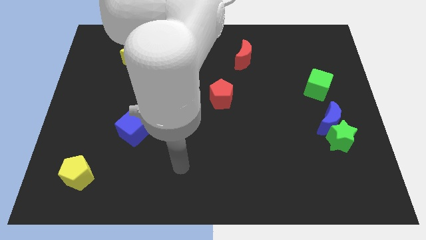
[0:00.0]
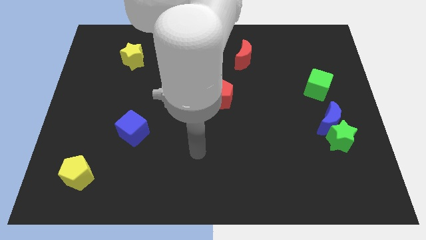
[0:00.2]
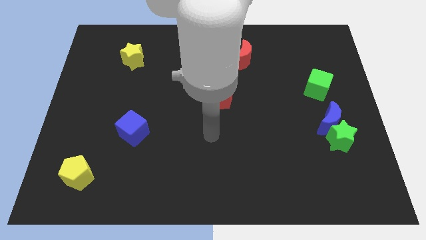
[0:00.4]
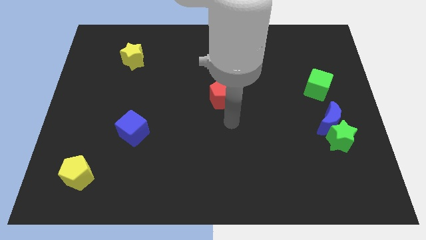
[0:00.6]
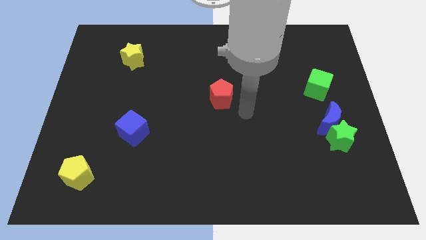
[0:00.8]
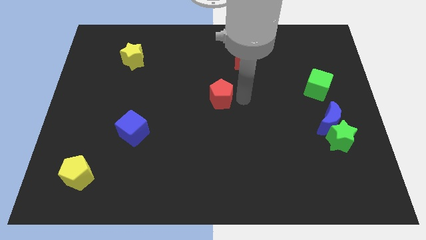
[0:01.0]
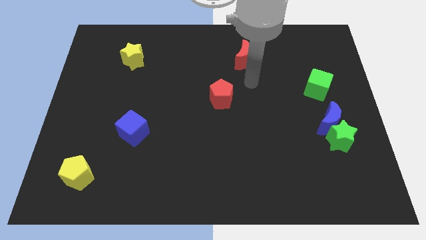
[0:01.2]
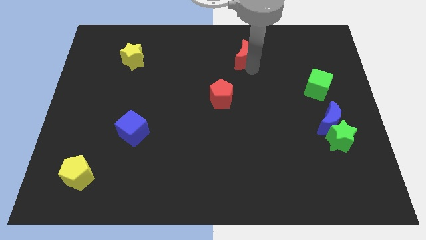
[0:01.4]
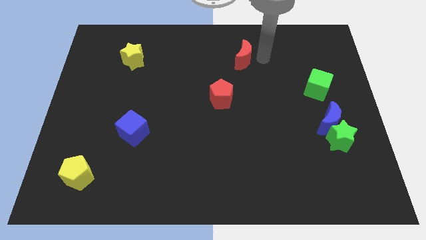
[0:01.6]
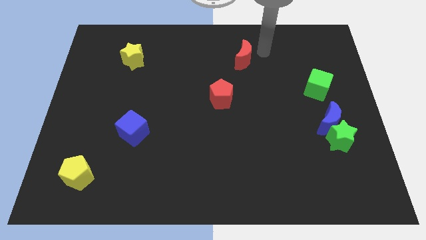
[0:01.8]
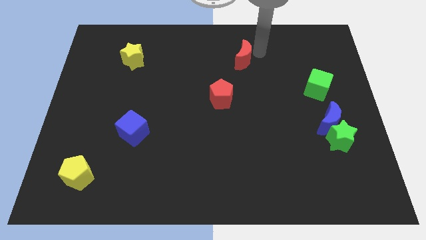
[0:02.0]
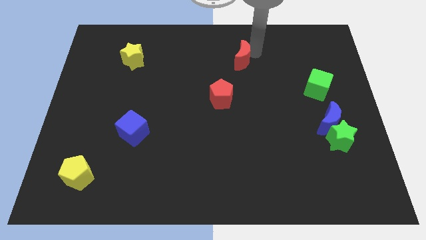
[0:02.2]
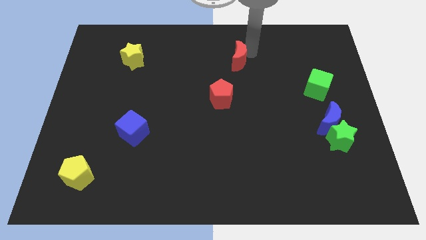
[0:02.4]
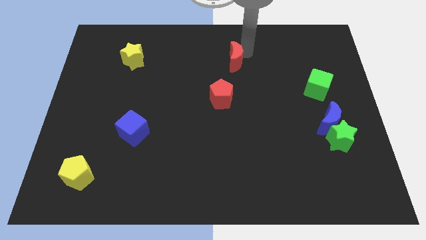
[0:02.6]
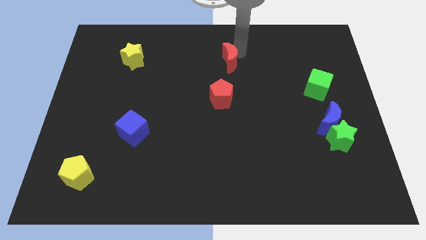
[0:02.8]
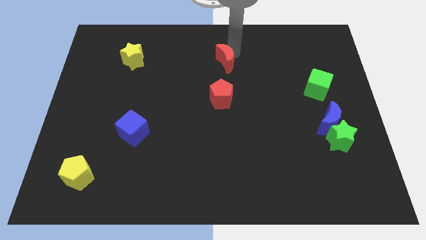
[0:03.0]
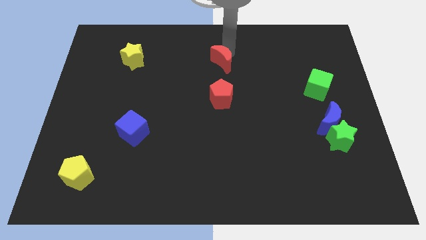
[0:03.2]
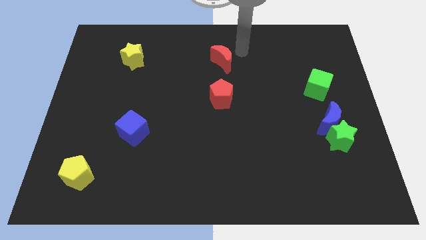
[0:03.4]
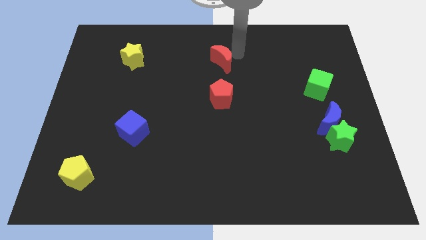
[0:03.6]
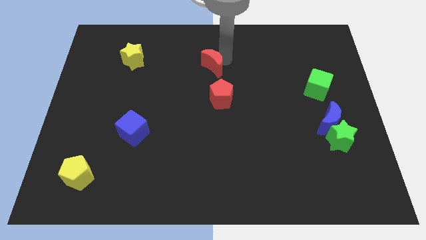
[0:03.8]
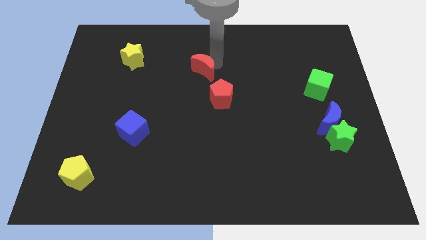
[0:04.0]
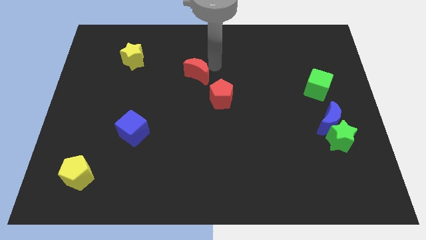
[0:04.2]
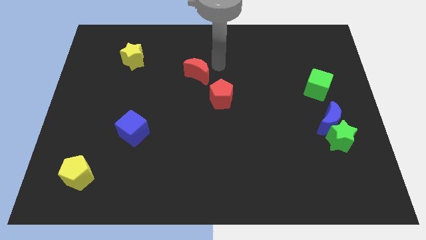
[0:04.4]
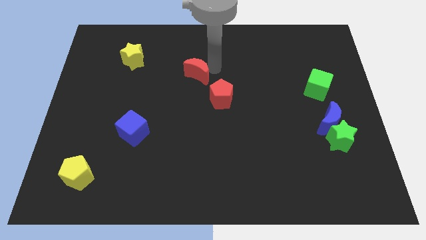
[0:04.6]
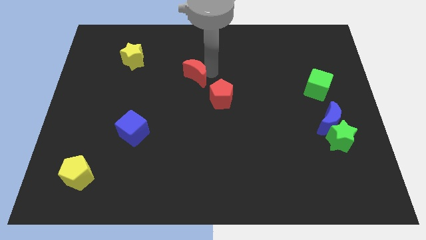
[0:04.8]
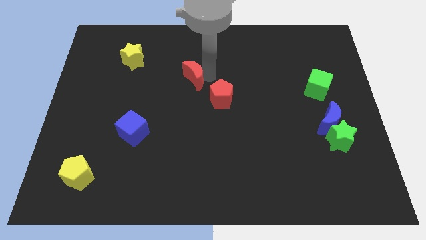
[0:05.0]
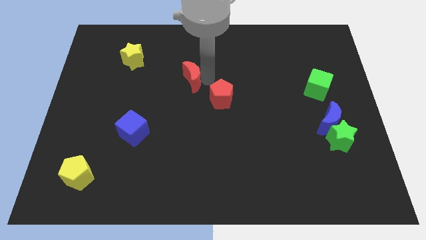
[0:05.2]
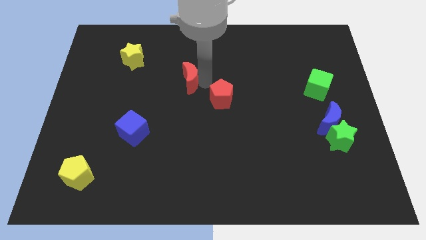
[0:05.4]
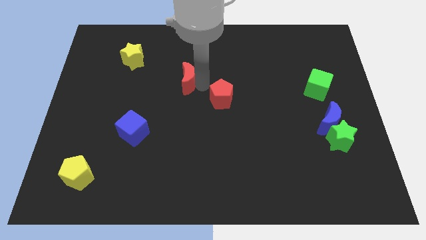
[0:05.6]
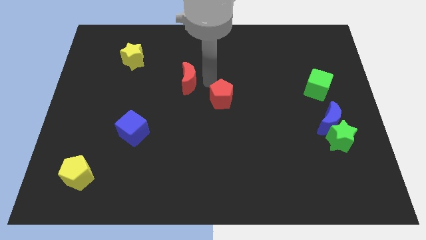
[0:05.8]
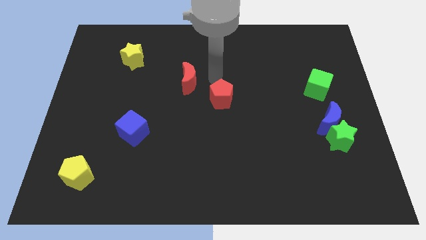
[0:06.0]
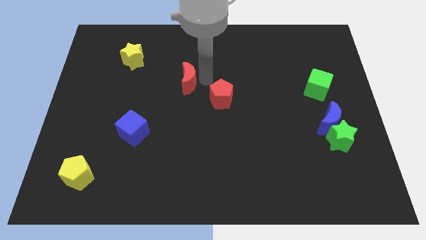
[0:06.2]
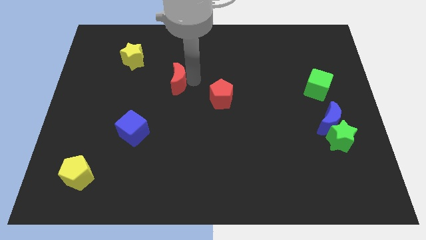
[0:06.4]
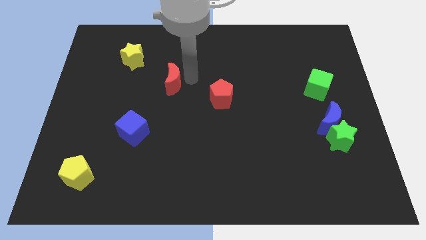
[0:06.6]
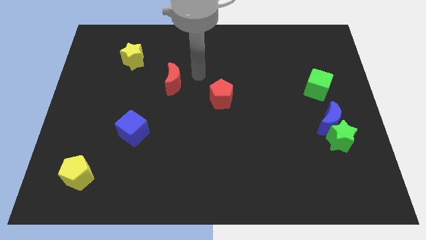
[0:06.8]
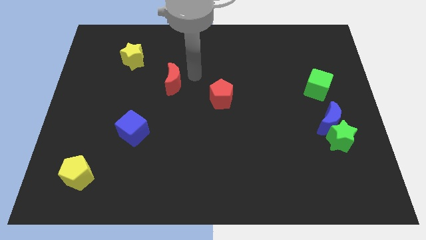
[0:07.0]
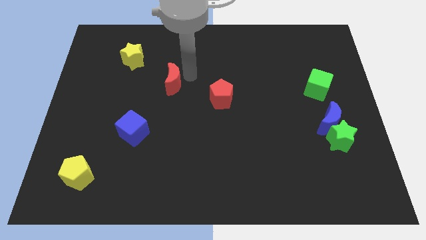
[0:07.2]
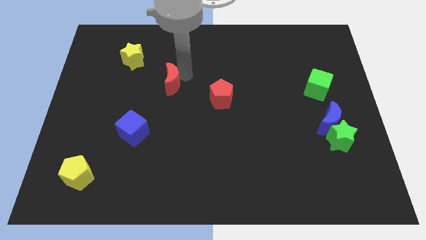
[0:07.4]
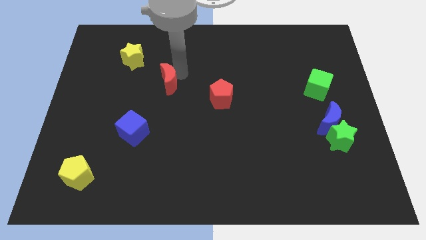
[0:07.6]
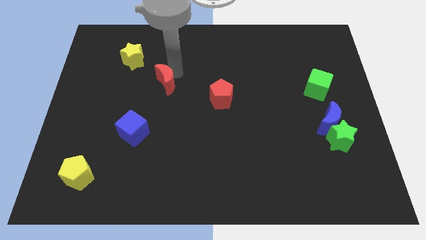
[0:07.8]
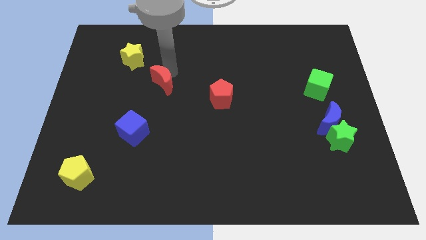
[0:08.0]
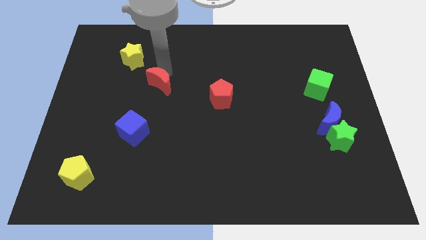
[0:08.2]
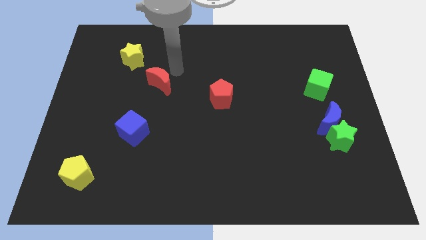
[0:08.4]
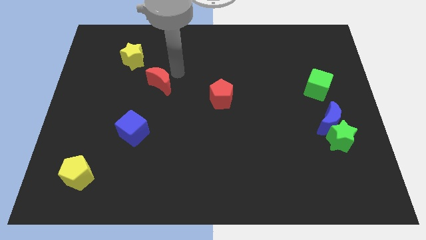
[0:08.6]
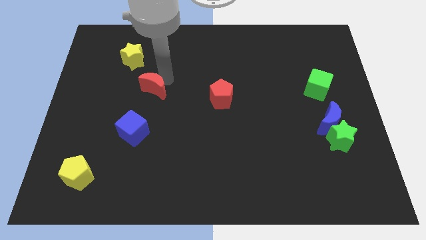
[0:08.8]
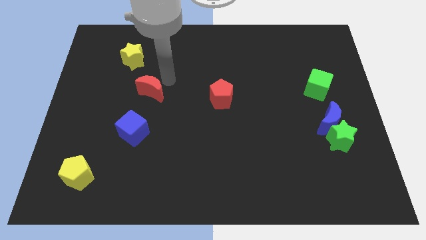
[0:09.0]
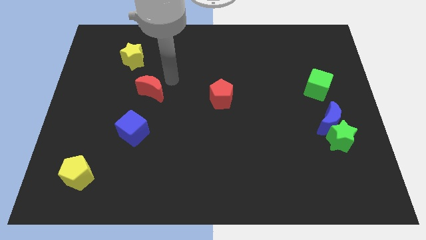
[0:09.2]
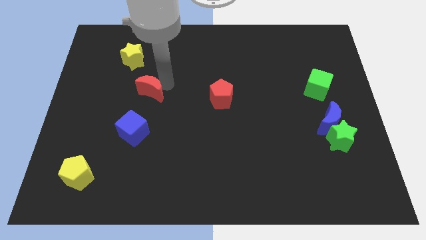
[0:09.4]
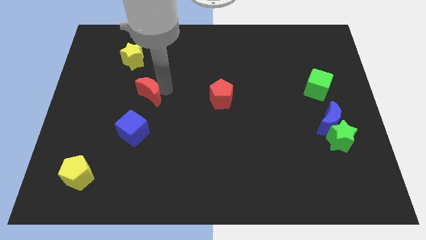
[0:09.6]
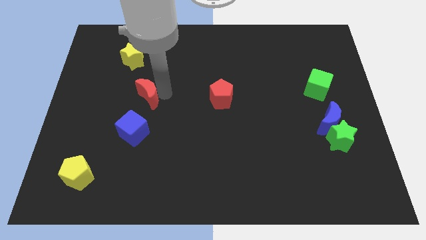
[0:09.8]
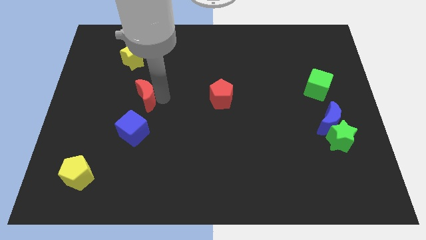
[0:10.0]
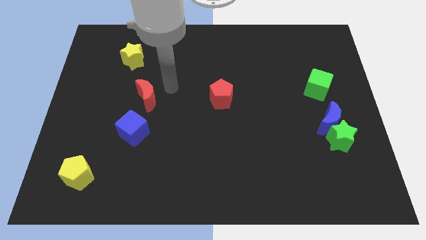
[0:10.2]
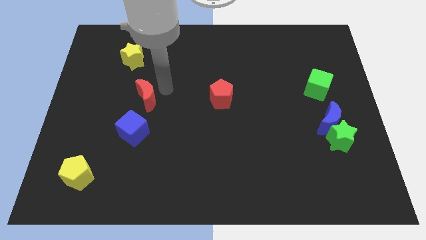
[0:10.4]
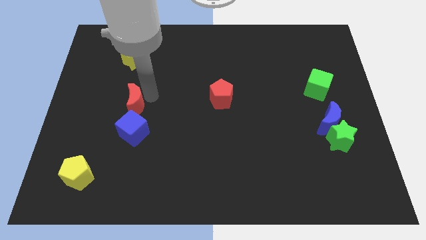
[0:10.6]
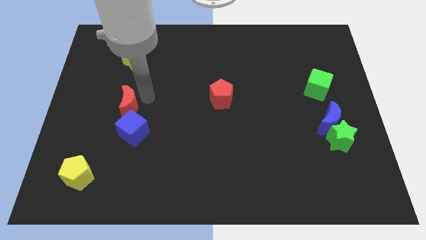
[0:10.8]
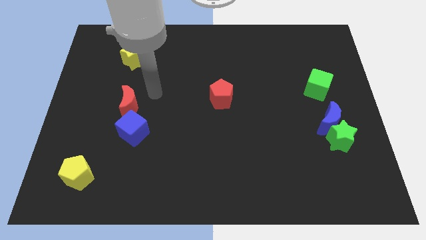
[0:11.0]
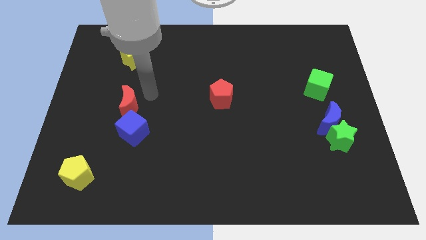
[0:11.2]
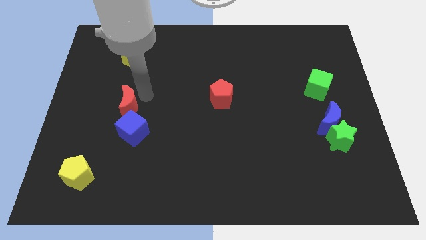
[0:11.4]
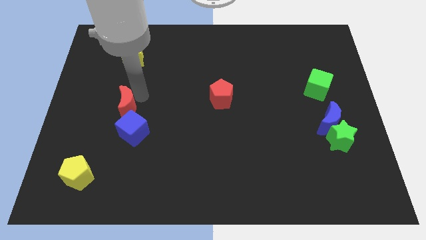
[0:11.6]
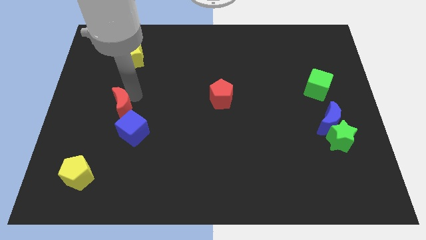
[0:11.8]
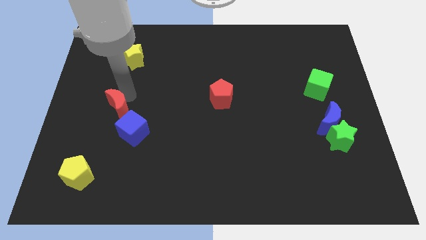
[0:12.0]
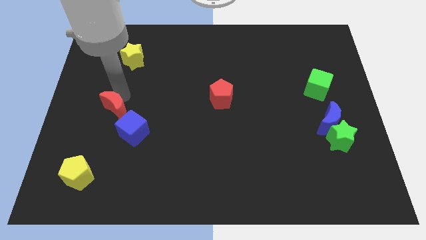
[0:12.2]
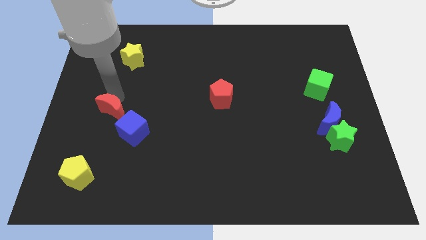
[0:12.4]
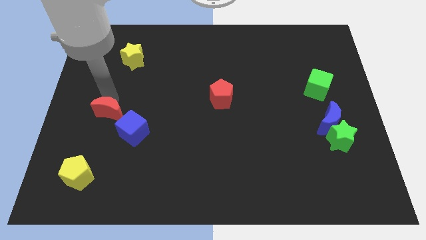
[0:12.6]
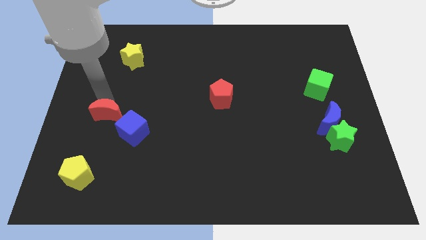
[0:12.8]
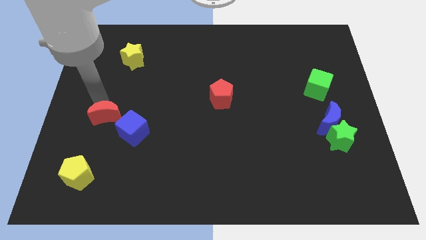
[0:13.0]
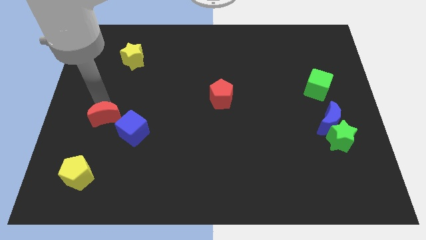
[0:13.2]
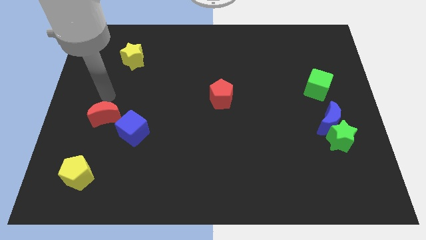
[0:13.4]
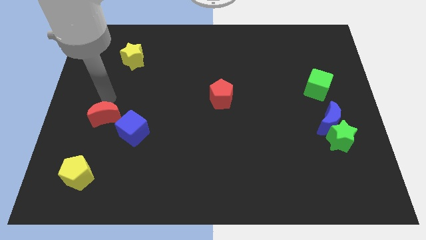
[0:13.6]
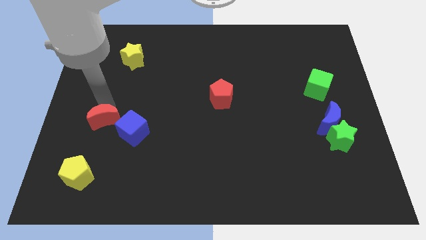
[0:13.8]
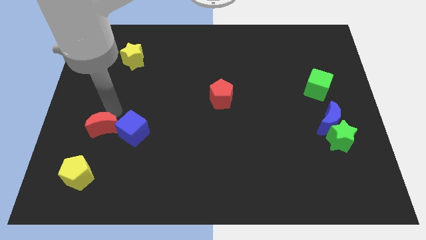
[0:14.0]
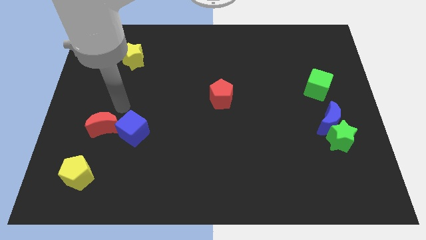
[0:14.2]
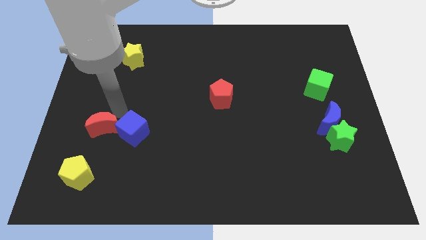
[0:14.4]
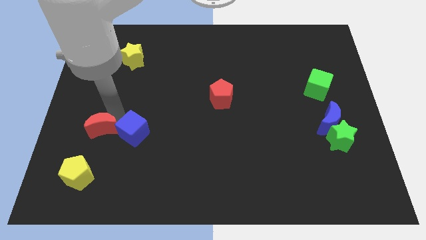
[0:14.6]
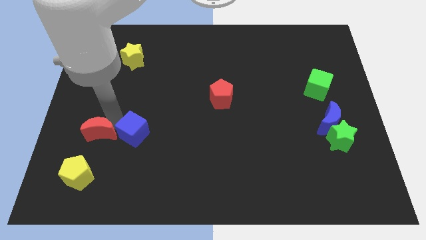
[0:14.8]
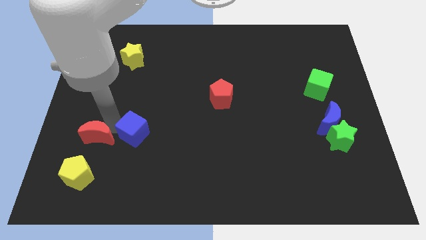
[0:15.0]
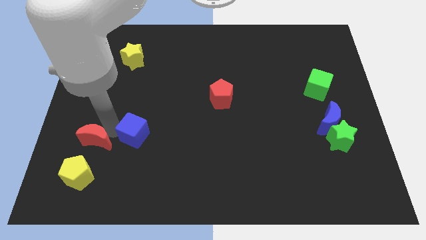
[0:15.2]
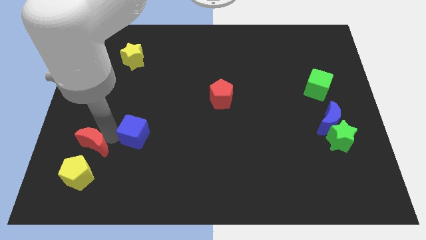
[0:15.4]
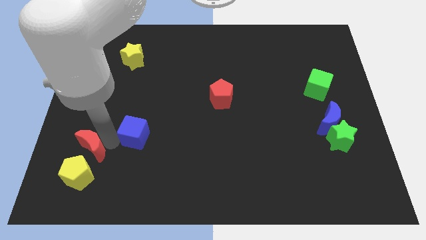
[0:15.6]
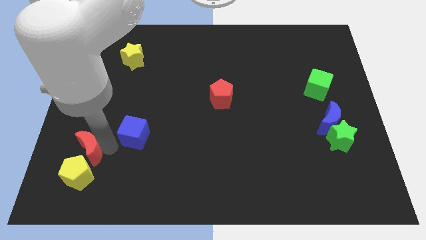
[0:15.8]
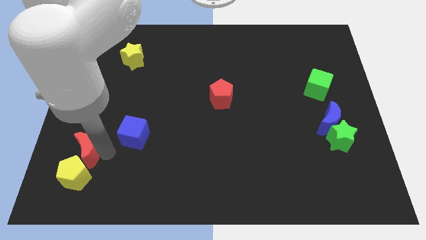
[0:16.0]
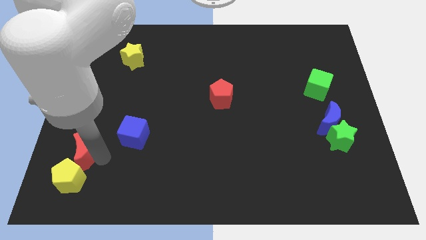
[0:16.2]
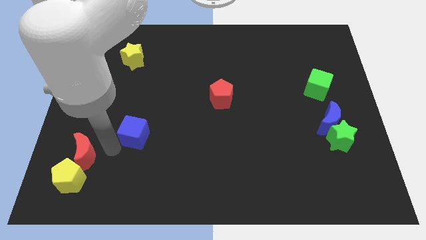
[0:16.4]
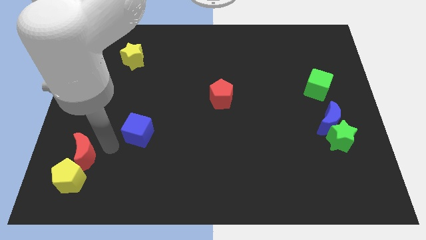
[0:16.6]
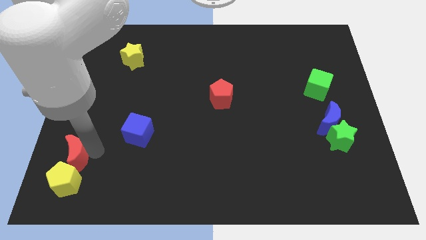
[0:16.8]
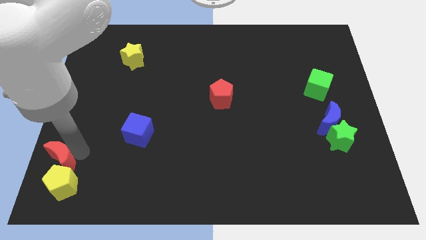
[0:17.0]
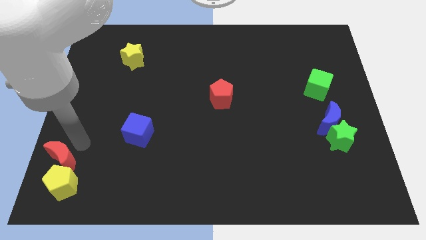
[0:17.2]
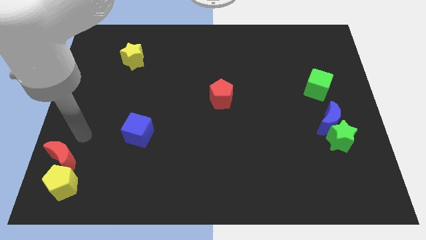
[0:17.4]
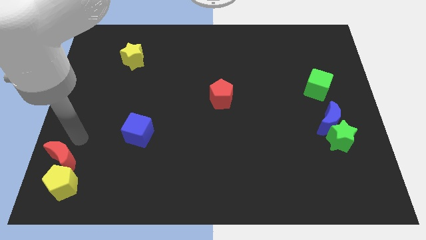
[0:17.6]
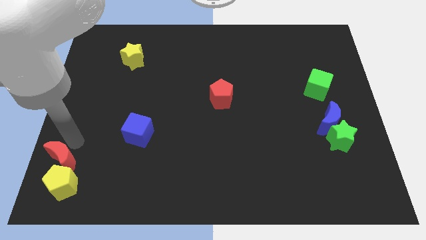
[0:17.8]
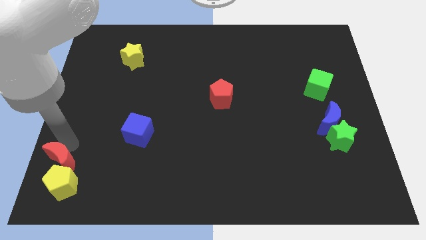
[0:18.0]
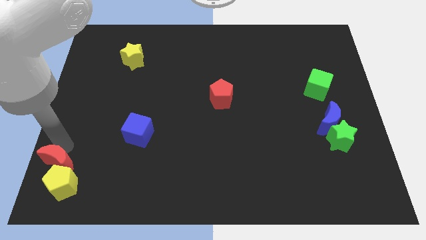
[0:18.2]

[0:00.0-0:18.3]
put the red moon to the bottom left of the board
